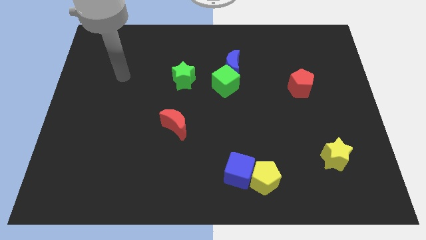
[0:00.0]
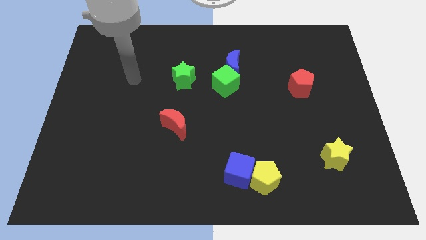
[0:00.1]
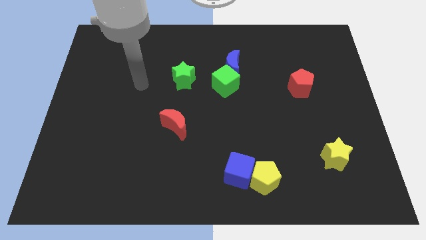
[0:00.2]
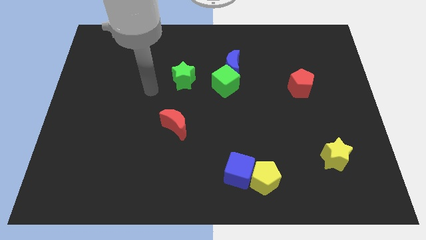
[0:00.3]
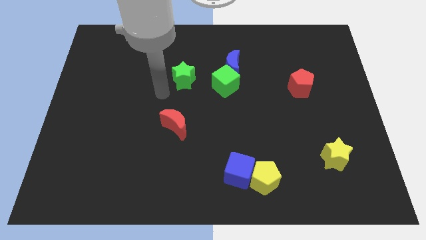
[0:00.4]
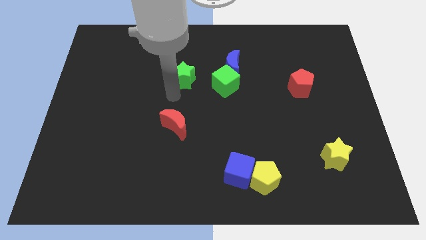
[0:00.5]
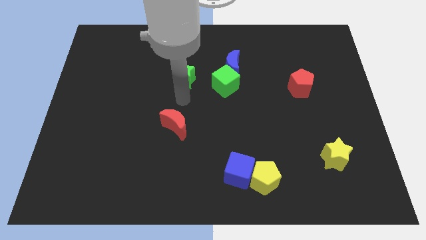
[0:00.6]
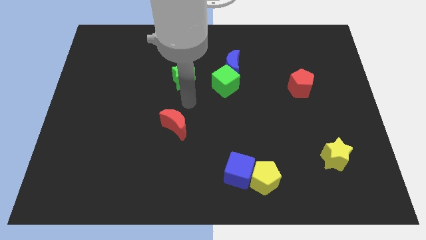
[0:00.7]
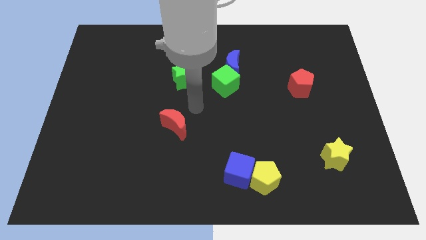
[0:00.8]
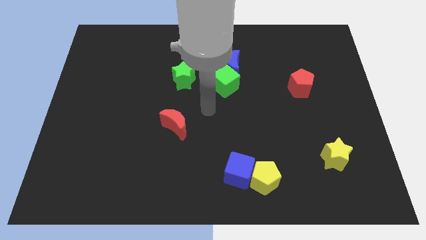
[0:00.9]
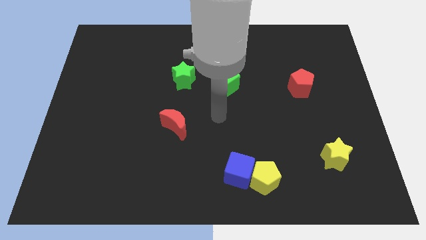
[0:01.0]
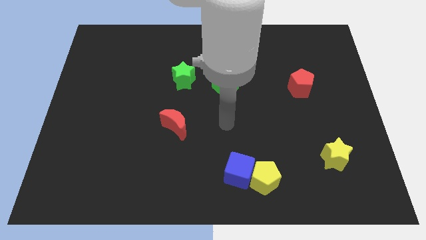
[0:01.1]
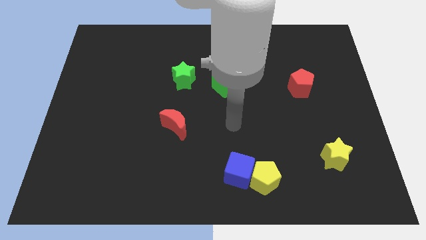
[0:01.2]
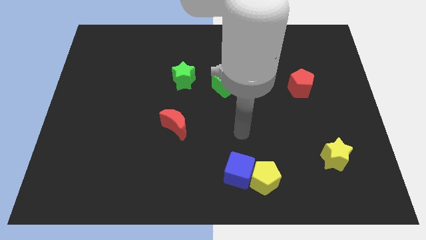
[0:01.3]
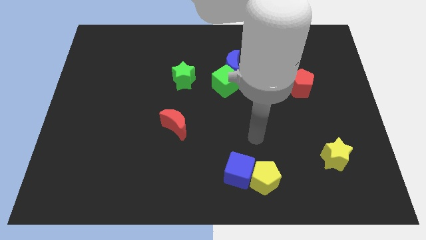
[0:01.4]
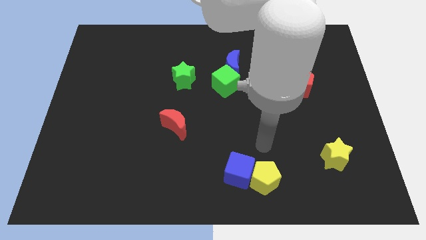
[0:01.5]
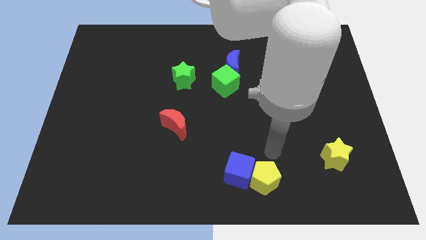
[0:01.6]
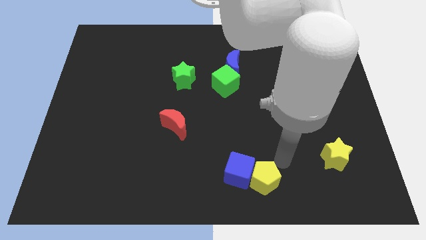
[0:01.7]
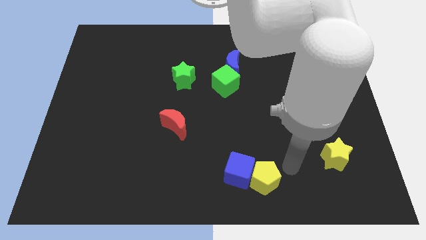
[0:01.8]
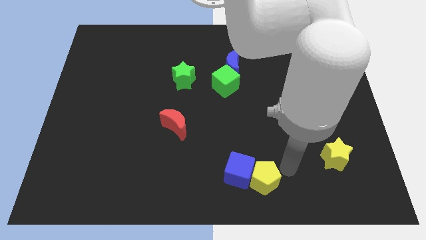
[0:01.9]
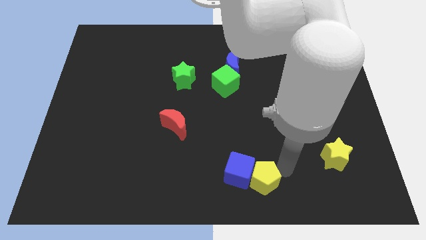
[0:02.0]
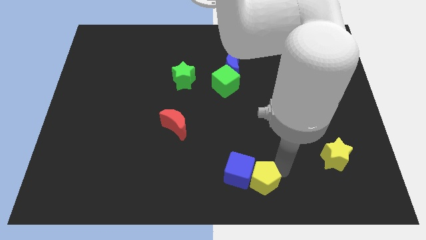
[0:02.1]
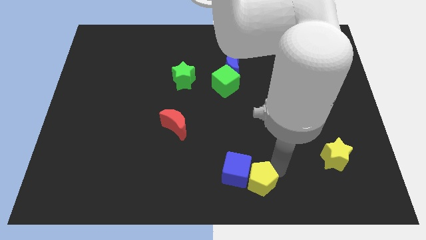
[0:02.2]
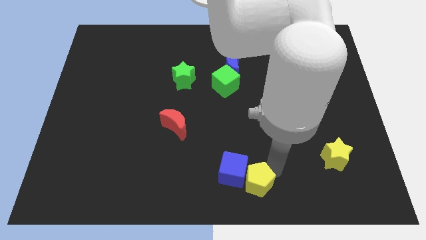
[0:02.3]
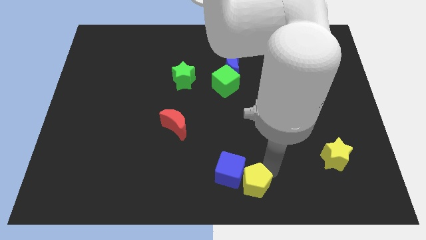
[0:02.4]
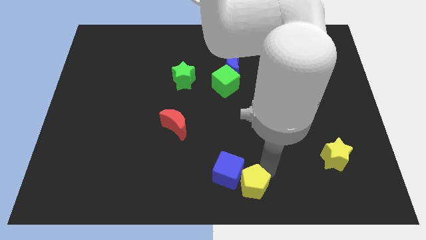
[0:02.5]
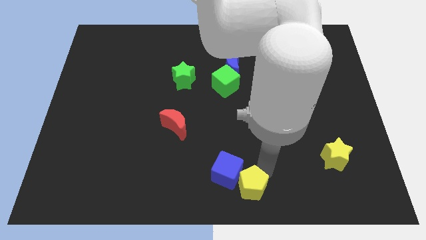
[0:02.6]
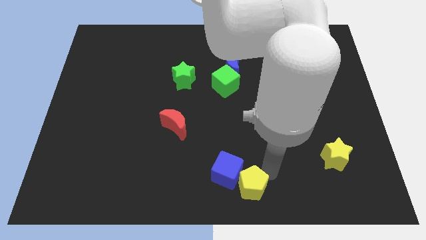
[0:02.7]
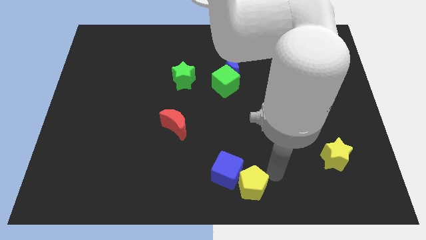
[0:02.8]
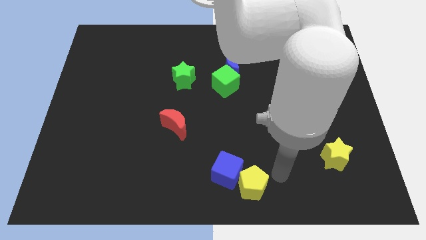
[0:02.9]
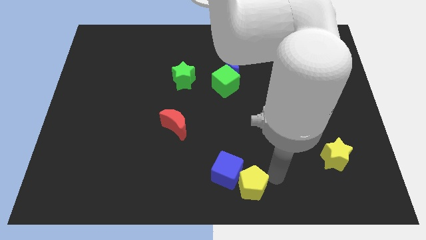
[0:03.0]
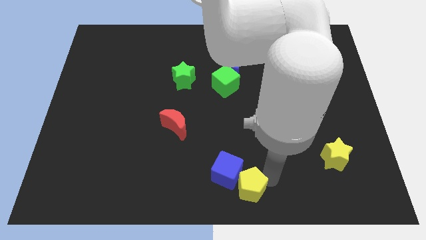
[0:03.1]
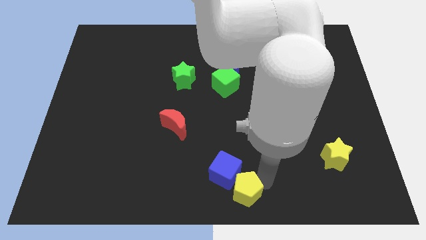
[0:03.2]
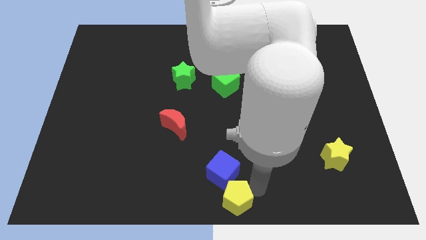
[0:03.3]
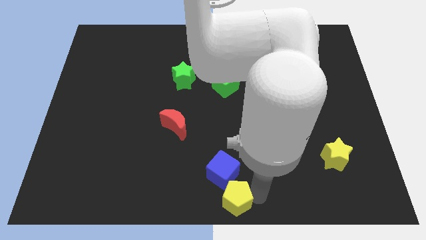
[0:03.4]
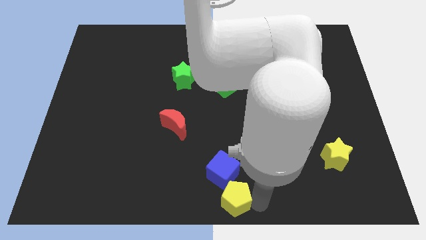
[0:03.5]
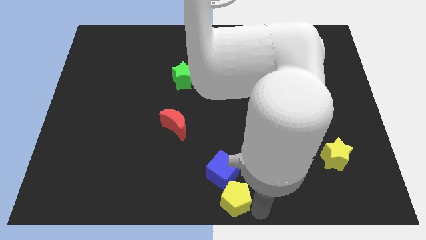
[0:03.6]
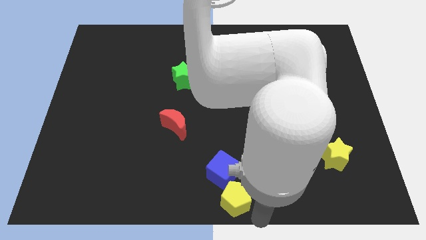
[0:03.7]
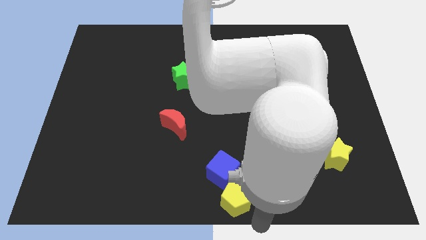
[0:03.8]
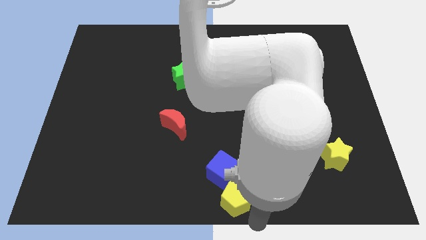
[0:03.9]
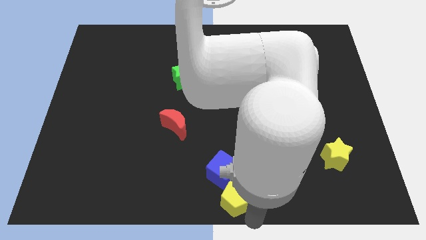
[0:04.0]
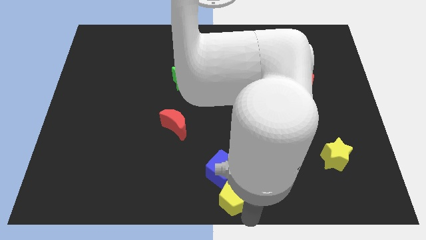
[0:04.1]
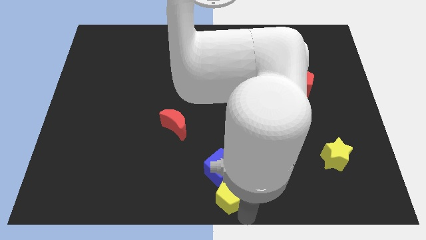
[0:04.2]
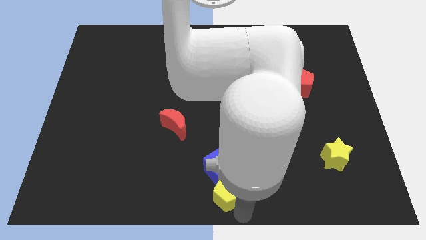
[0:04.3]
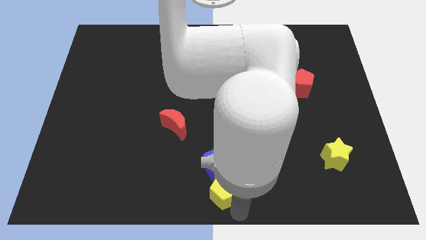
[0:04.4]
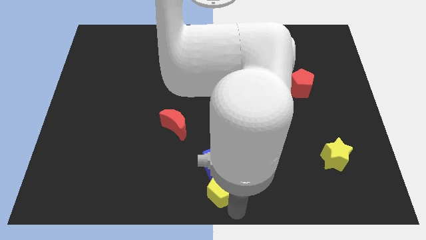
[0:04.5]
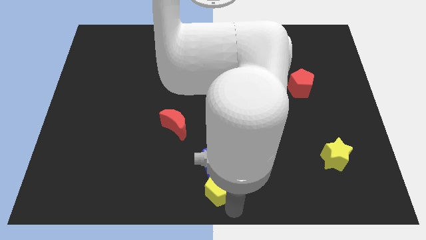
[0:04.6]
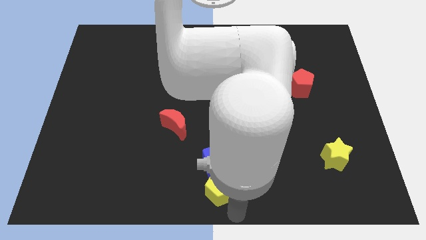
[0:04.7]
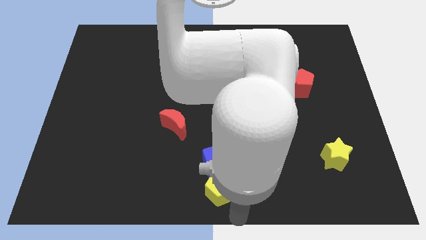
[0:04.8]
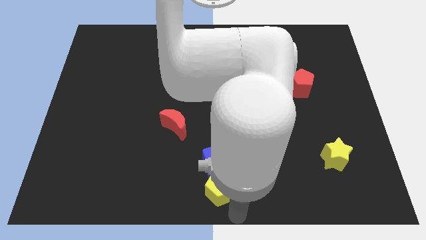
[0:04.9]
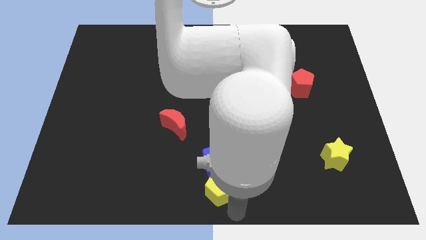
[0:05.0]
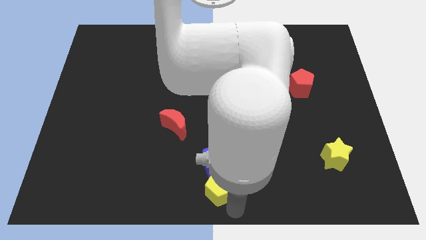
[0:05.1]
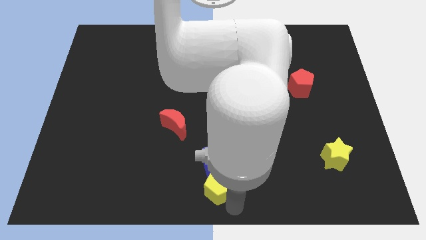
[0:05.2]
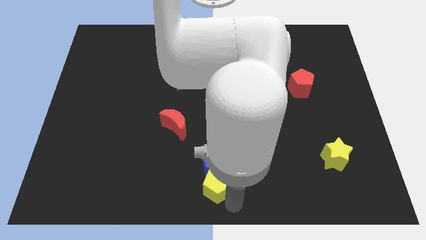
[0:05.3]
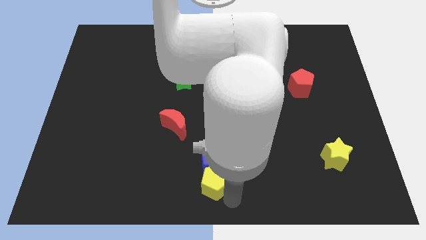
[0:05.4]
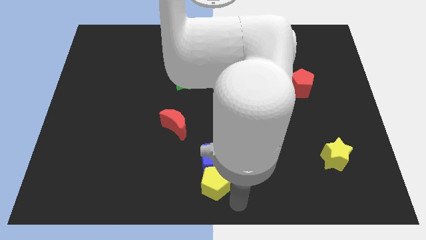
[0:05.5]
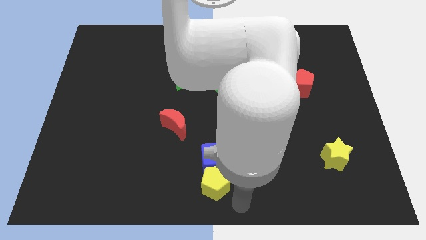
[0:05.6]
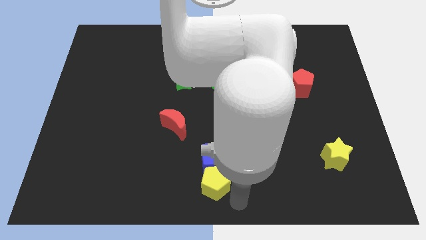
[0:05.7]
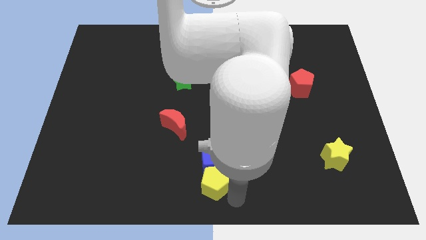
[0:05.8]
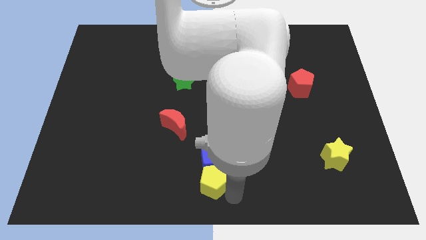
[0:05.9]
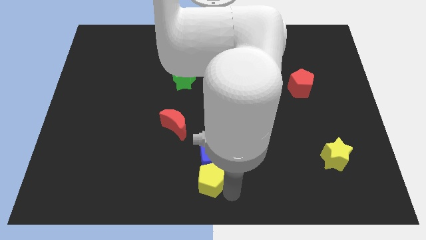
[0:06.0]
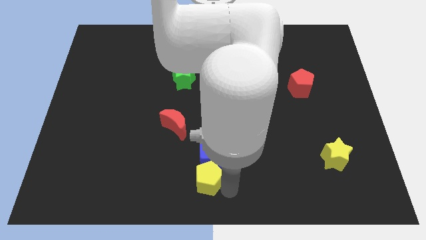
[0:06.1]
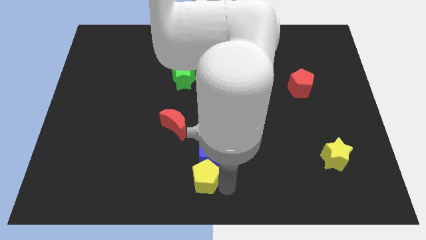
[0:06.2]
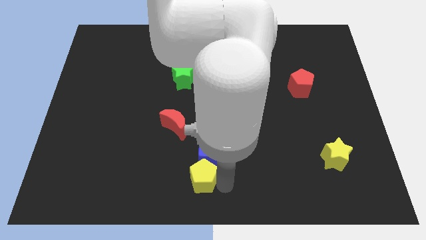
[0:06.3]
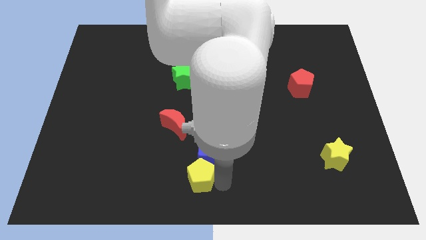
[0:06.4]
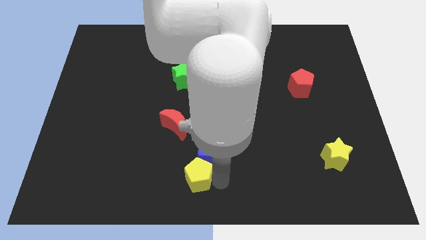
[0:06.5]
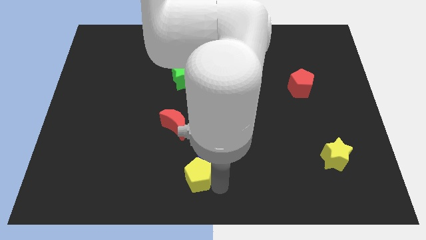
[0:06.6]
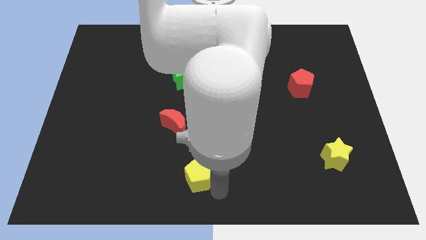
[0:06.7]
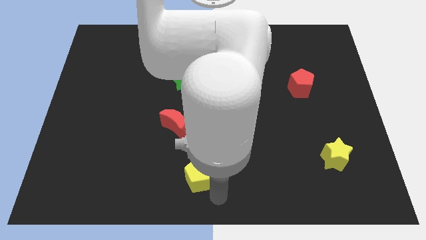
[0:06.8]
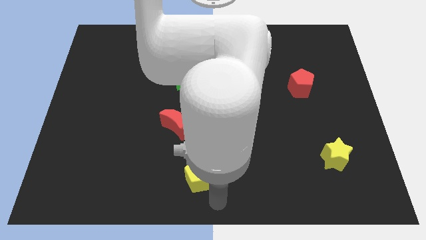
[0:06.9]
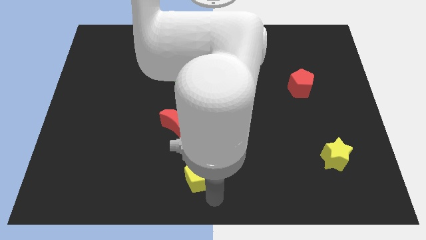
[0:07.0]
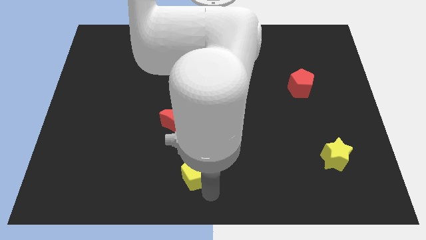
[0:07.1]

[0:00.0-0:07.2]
push the yellow pentagon to the bottom of the red moon
